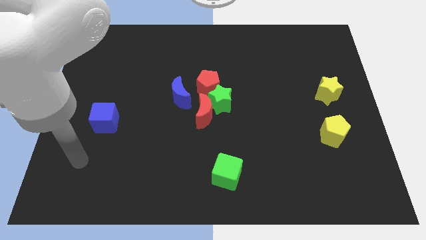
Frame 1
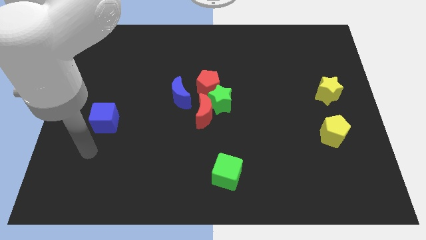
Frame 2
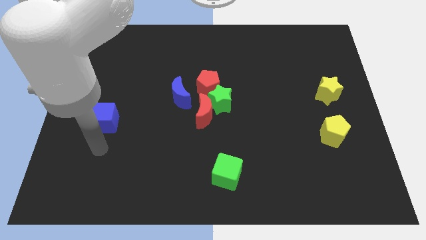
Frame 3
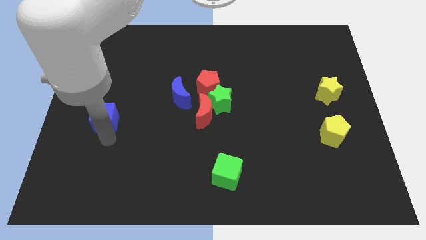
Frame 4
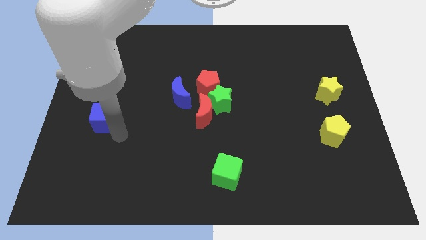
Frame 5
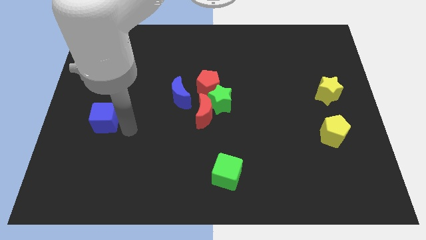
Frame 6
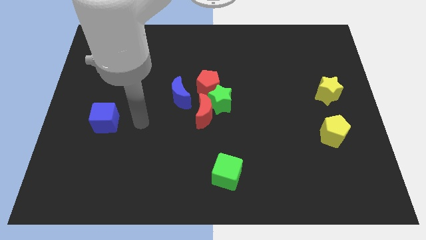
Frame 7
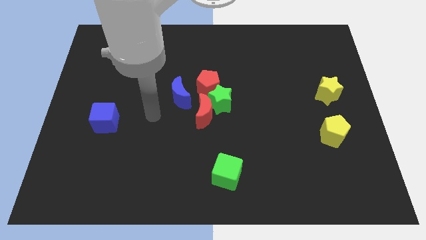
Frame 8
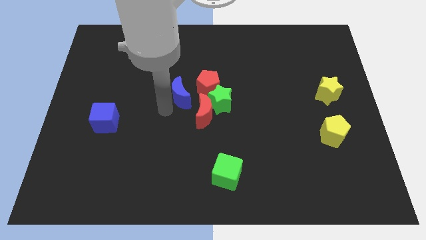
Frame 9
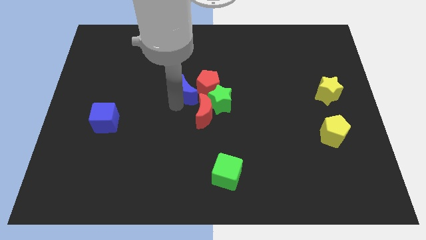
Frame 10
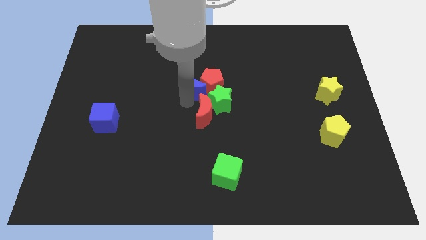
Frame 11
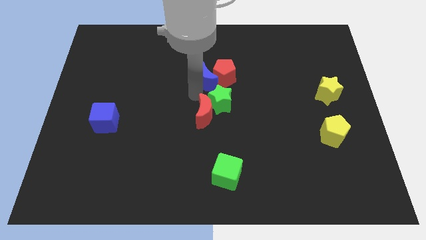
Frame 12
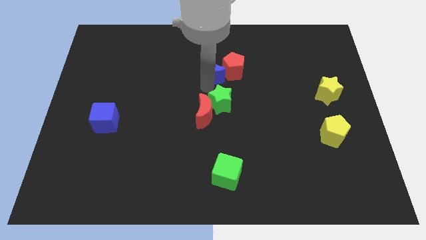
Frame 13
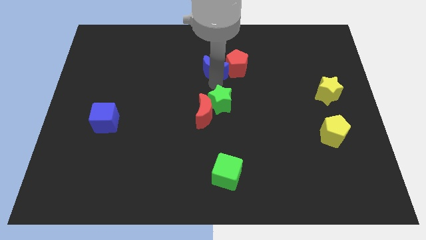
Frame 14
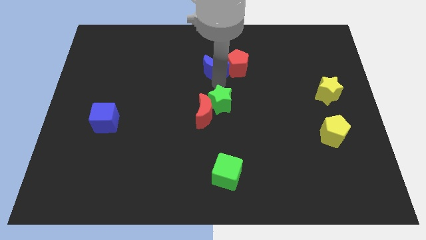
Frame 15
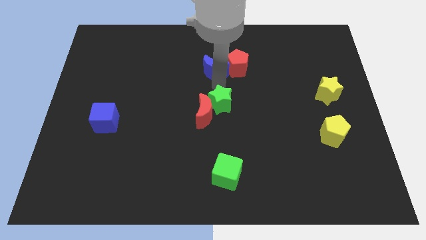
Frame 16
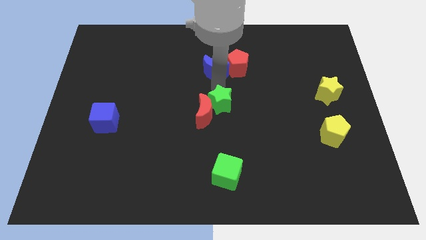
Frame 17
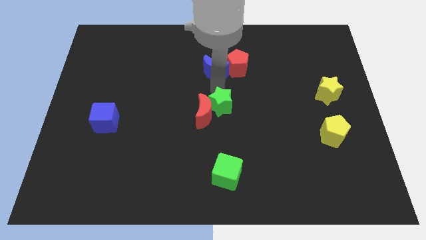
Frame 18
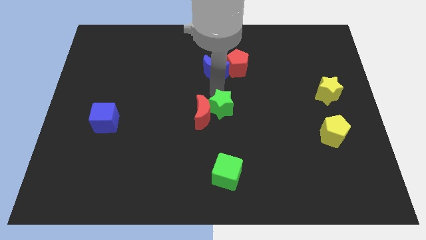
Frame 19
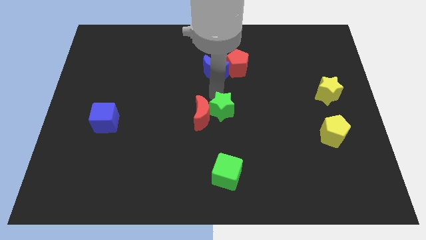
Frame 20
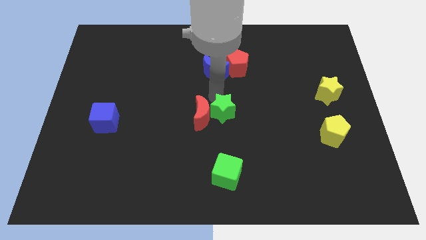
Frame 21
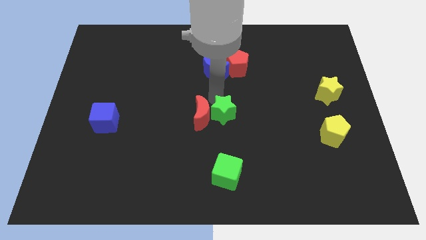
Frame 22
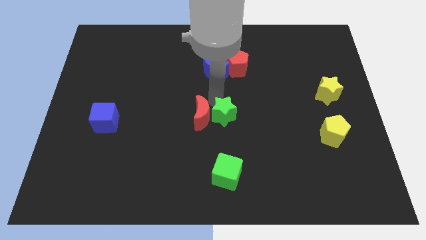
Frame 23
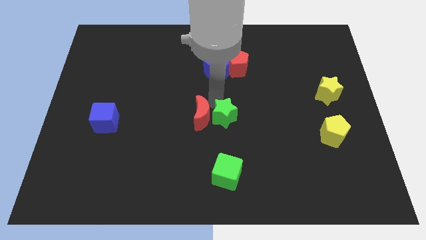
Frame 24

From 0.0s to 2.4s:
separate the green star from the clump

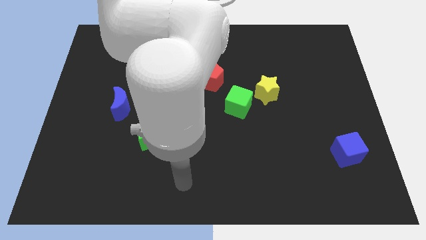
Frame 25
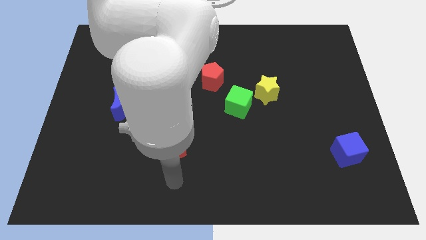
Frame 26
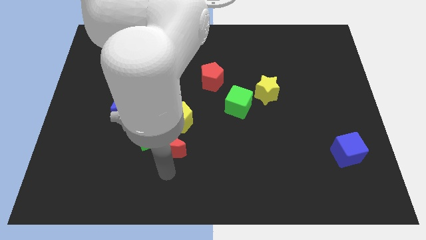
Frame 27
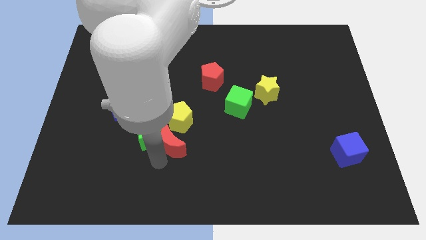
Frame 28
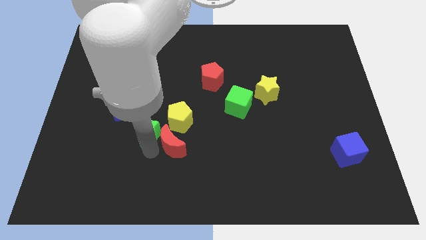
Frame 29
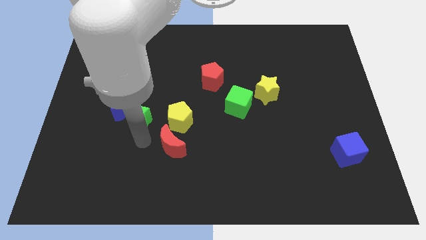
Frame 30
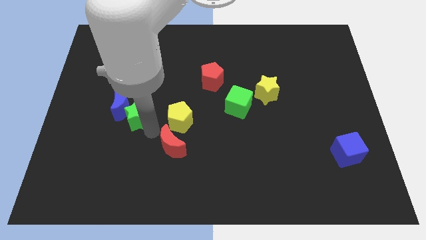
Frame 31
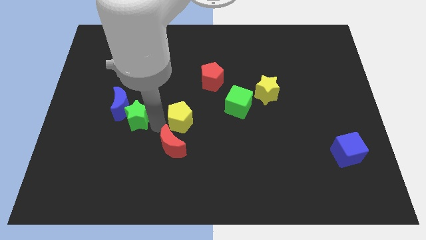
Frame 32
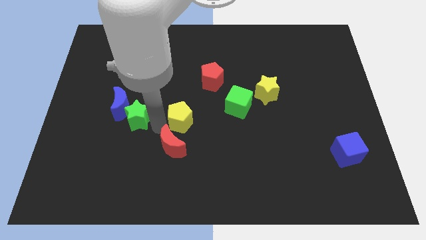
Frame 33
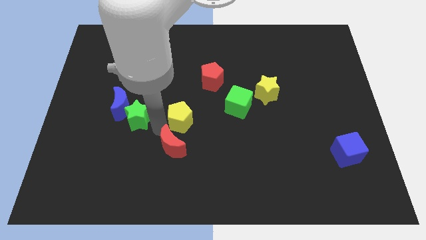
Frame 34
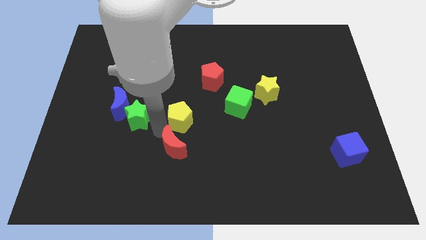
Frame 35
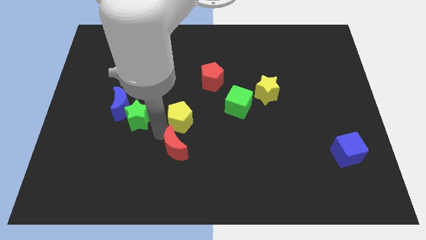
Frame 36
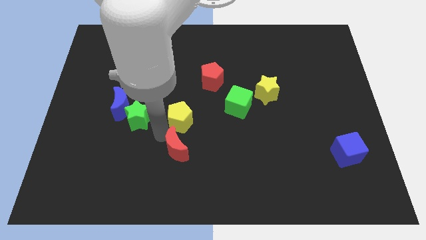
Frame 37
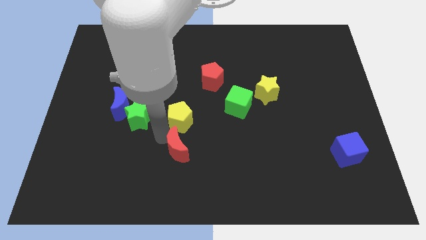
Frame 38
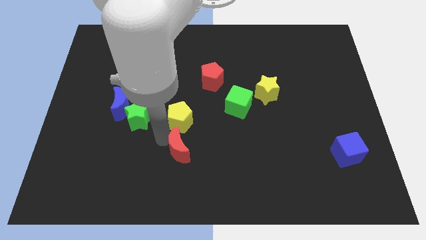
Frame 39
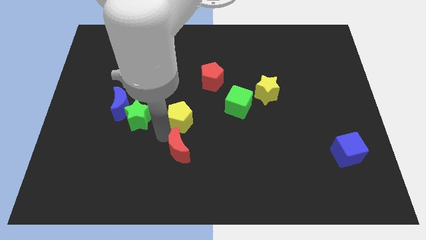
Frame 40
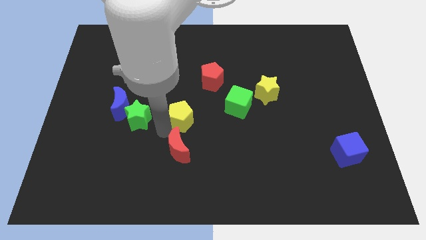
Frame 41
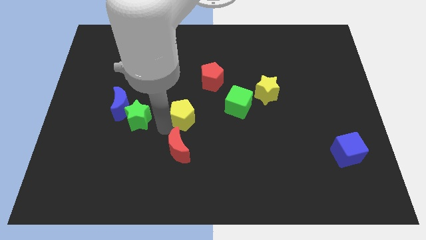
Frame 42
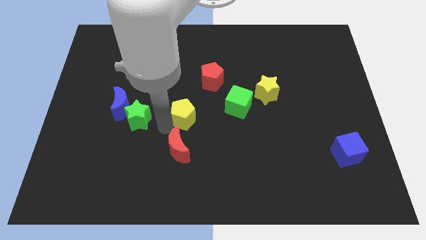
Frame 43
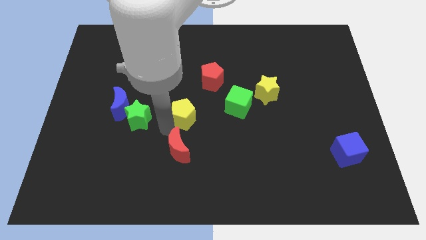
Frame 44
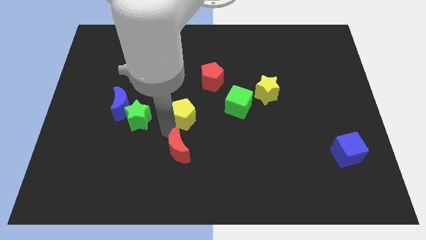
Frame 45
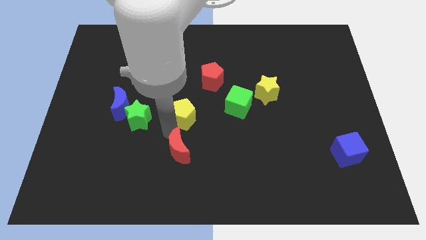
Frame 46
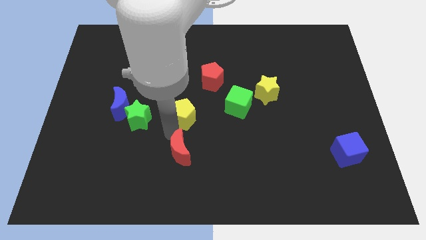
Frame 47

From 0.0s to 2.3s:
separate the red moon from the green star and yellow pentagon

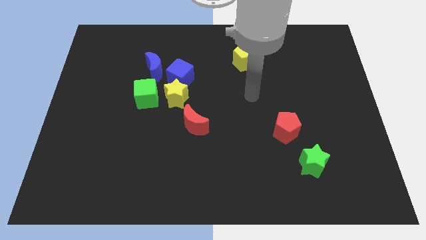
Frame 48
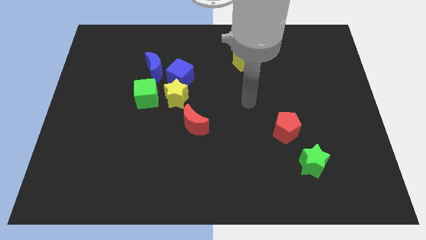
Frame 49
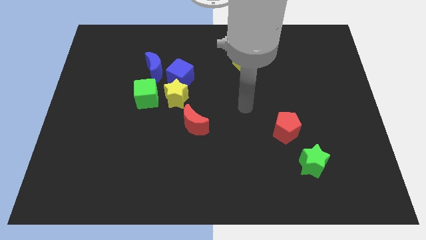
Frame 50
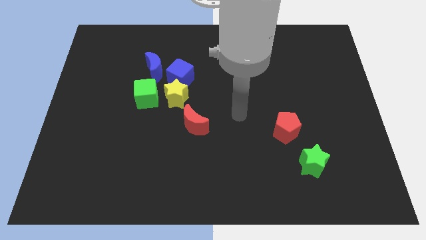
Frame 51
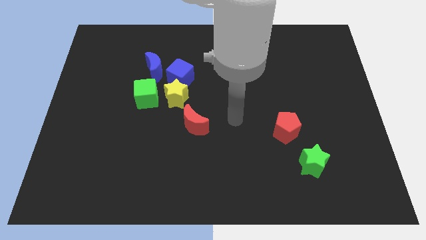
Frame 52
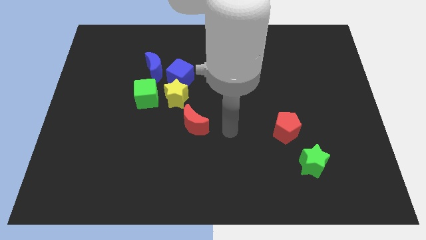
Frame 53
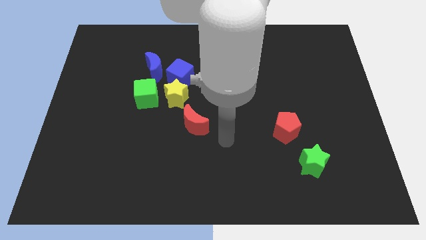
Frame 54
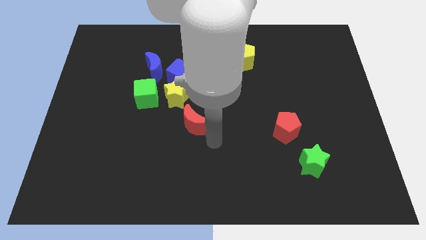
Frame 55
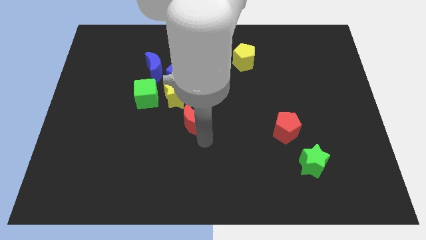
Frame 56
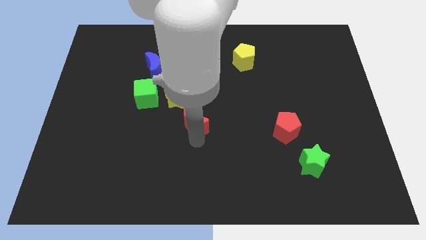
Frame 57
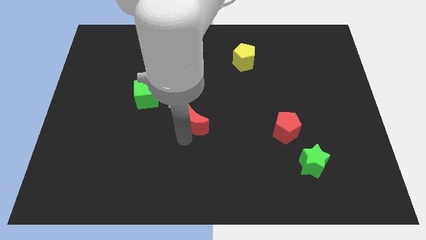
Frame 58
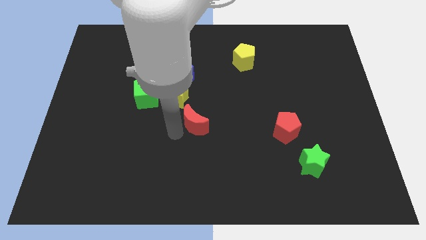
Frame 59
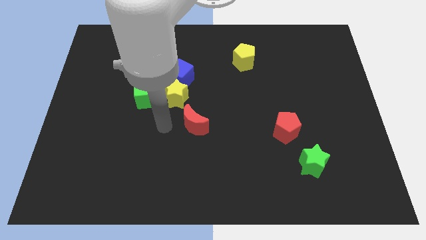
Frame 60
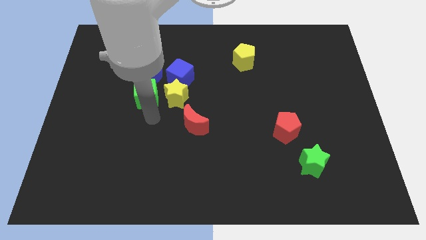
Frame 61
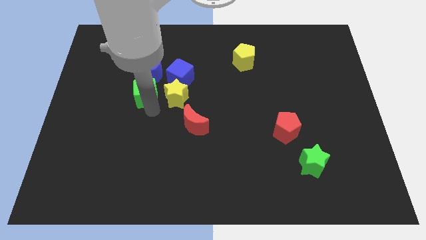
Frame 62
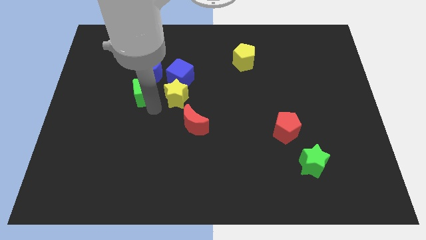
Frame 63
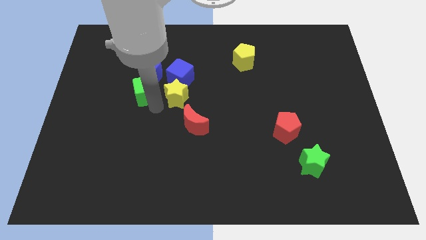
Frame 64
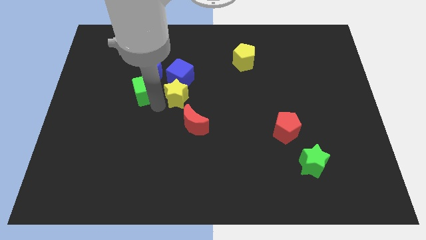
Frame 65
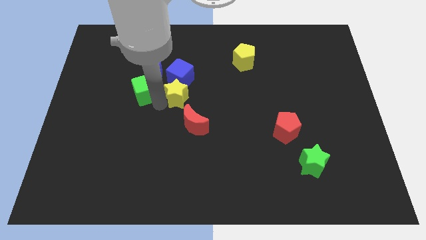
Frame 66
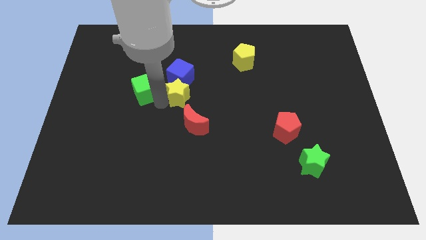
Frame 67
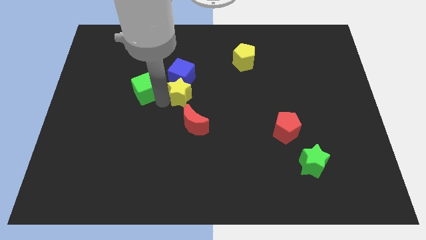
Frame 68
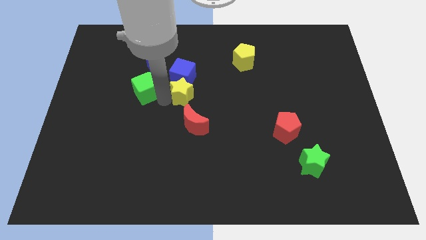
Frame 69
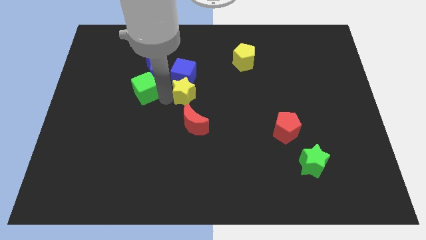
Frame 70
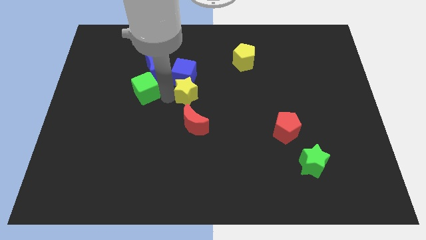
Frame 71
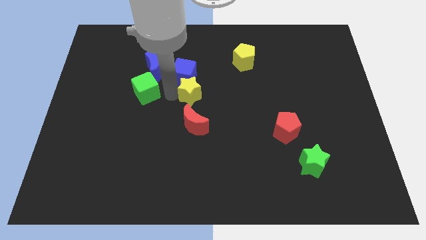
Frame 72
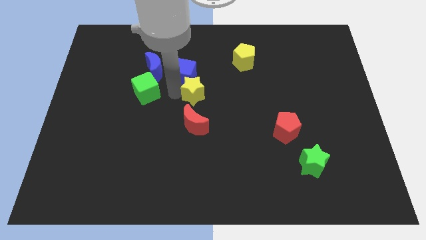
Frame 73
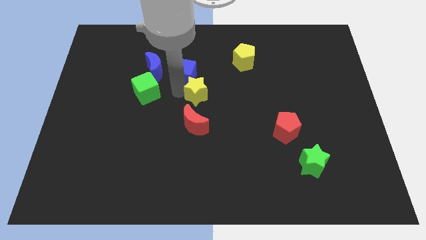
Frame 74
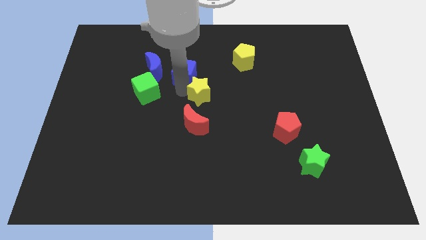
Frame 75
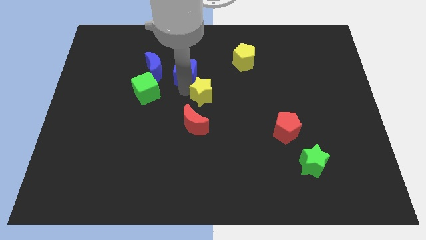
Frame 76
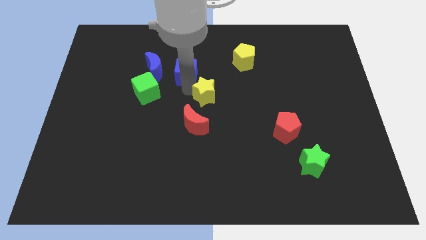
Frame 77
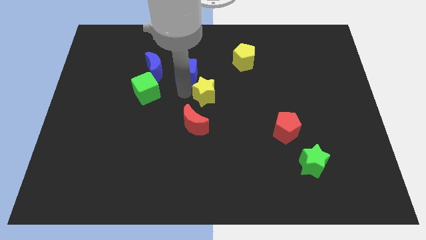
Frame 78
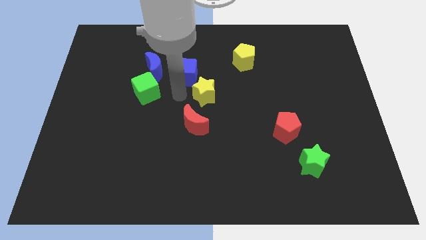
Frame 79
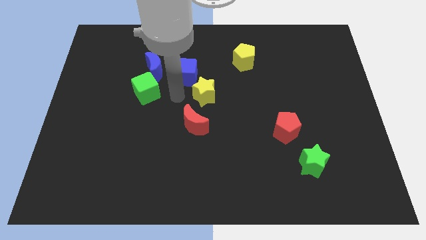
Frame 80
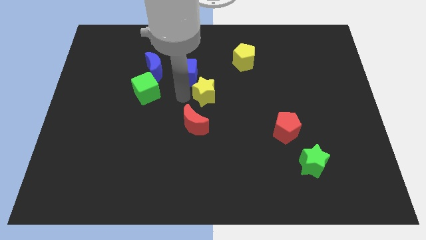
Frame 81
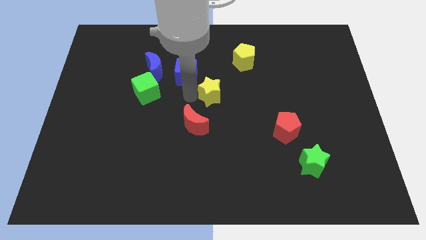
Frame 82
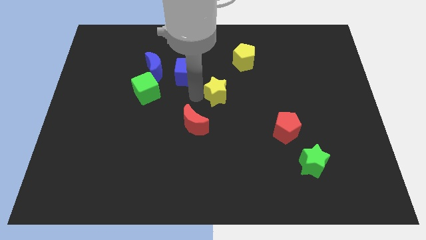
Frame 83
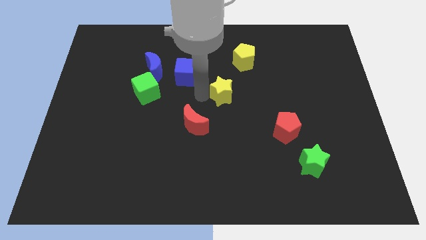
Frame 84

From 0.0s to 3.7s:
separate the yellow star from the blue cube, green cube, and red moon

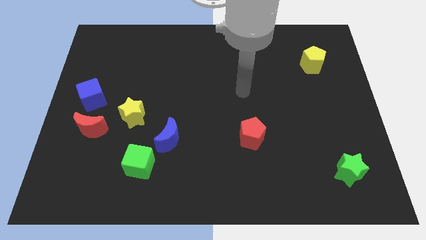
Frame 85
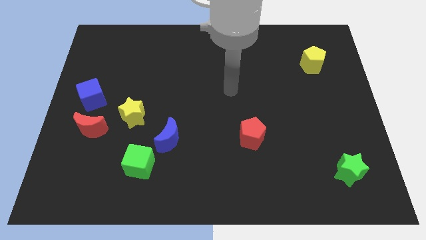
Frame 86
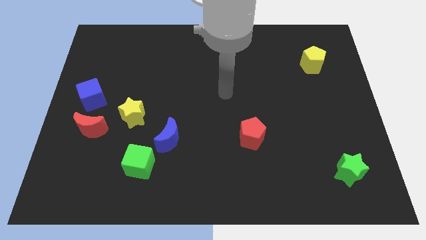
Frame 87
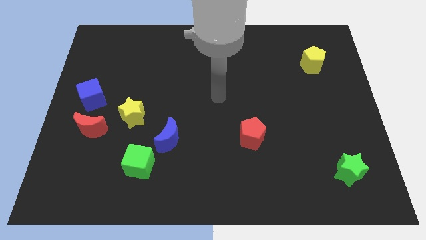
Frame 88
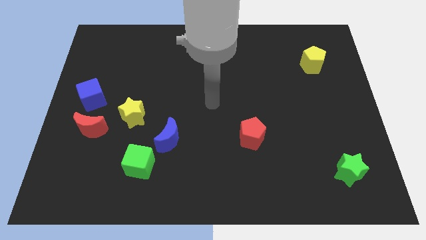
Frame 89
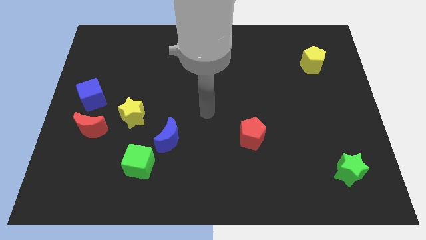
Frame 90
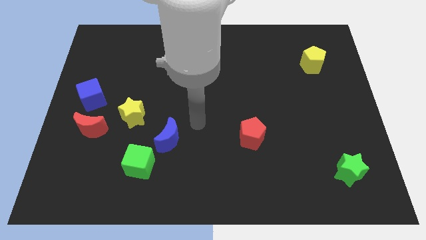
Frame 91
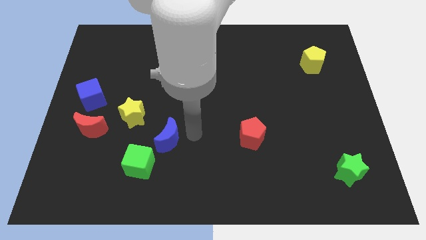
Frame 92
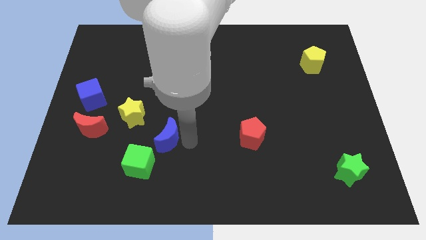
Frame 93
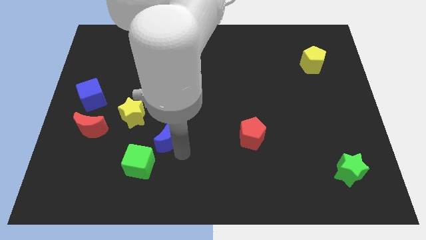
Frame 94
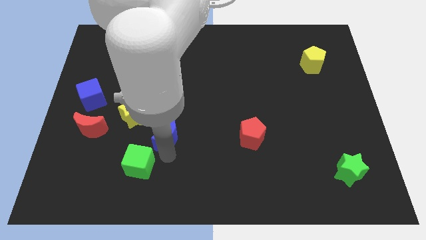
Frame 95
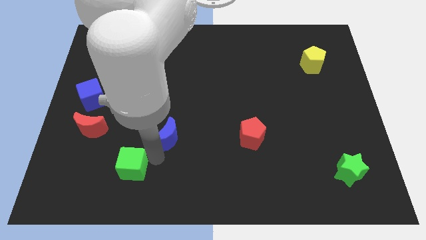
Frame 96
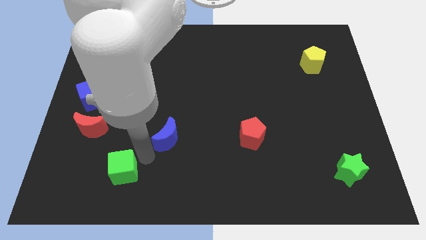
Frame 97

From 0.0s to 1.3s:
separate the blue moon from the green cube
